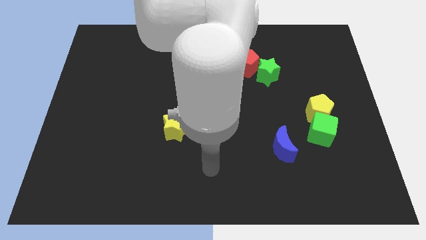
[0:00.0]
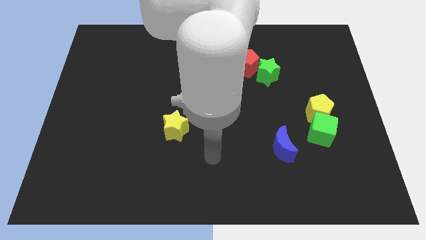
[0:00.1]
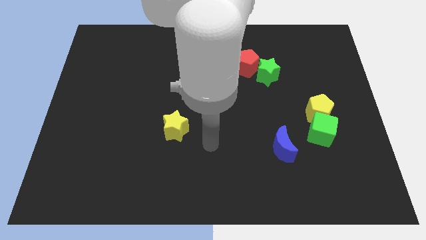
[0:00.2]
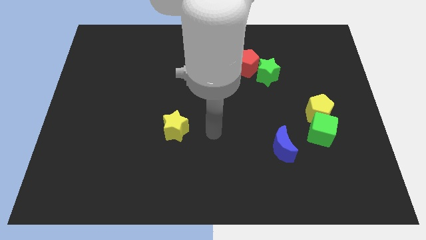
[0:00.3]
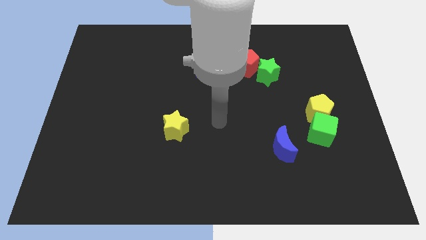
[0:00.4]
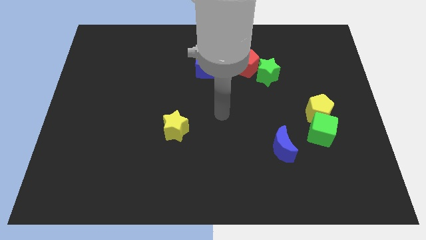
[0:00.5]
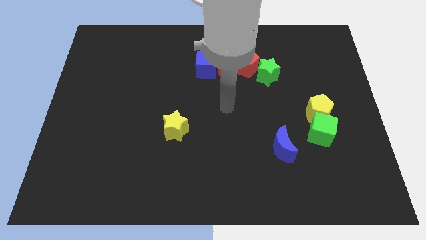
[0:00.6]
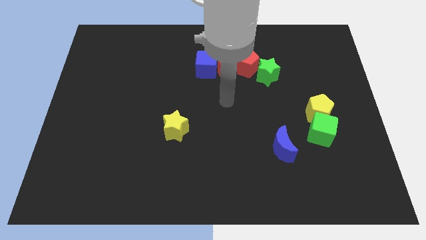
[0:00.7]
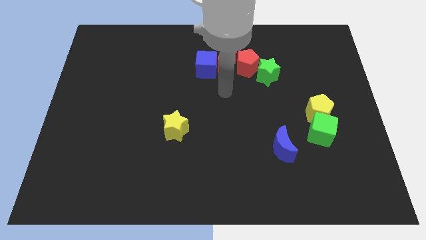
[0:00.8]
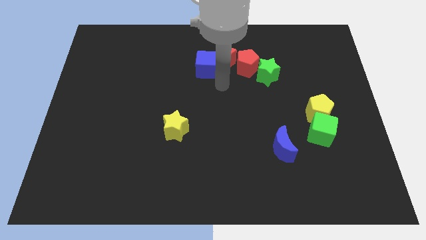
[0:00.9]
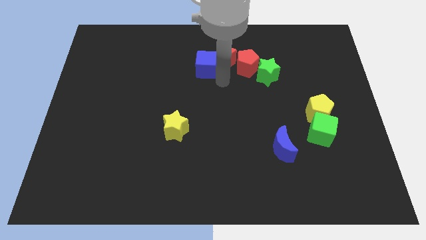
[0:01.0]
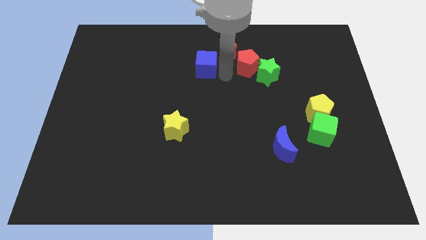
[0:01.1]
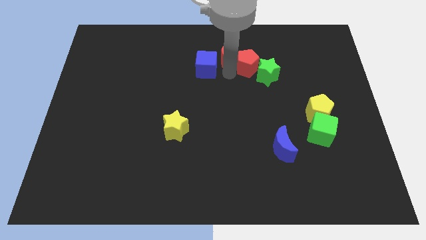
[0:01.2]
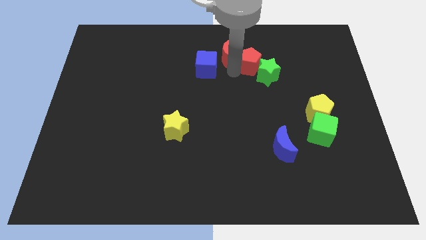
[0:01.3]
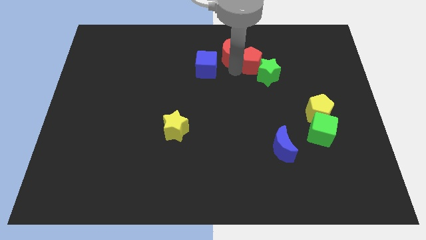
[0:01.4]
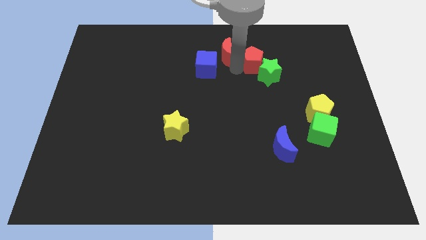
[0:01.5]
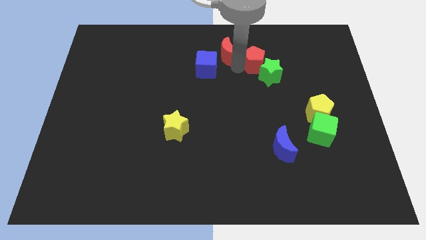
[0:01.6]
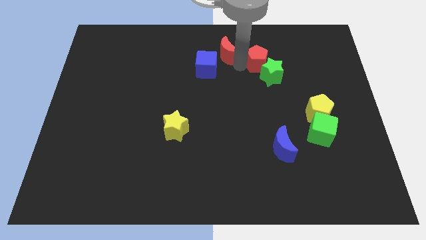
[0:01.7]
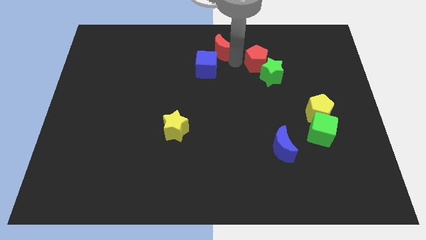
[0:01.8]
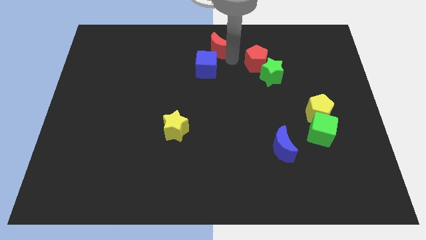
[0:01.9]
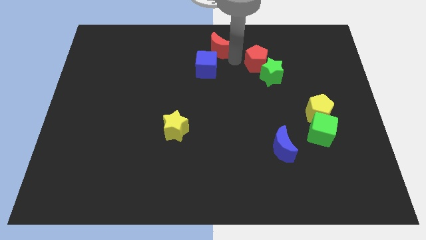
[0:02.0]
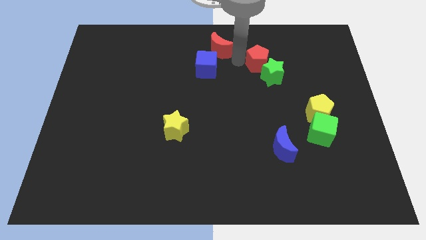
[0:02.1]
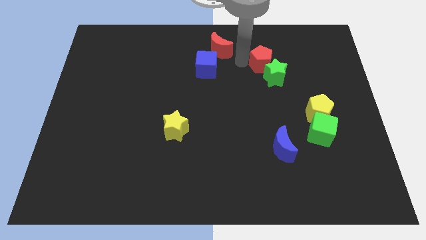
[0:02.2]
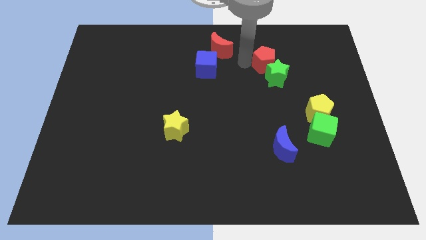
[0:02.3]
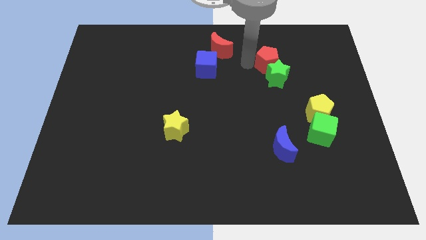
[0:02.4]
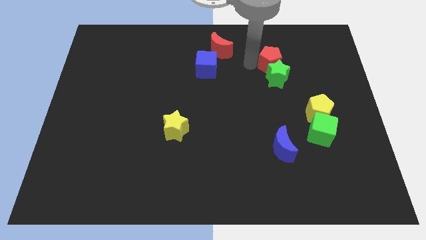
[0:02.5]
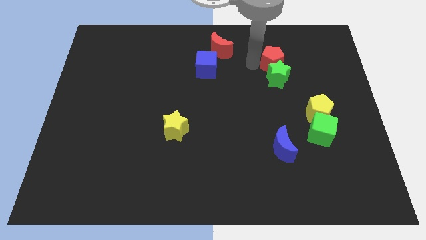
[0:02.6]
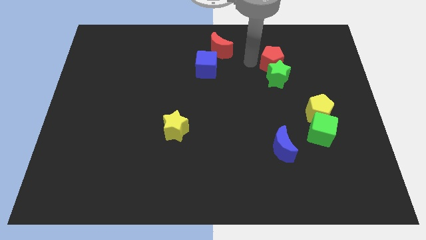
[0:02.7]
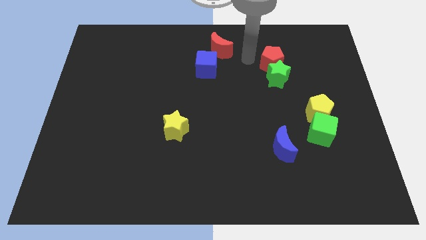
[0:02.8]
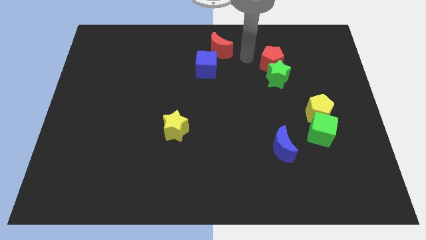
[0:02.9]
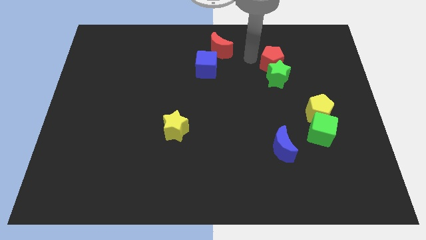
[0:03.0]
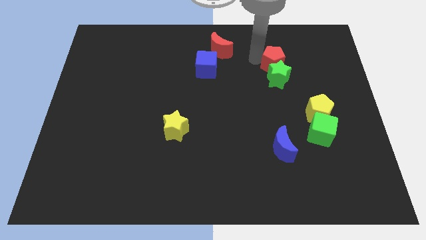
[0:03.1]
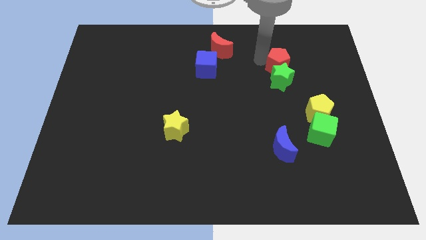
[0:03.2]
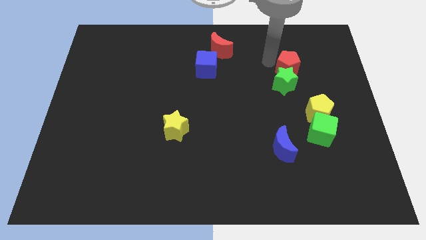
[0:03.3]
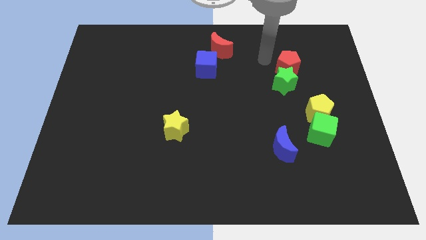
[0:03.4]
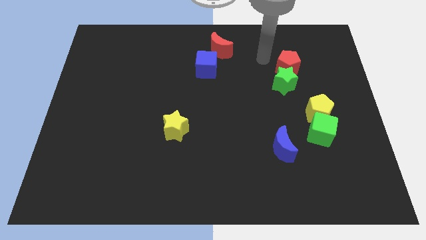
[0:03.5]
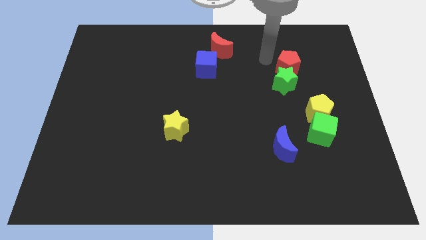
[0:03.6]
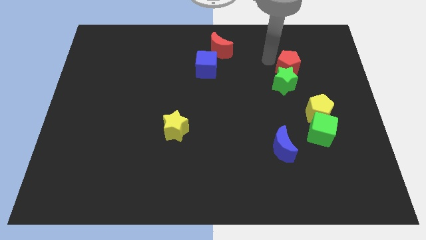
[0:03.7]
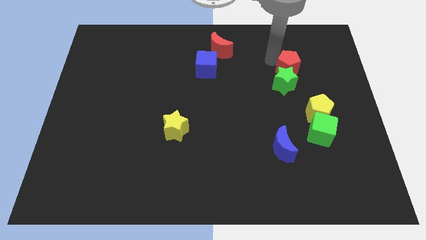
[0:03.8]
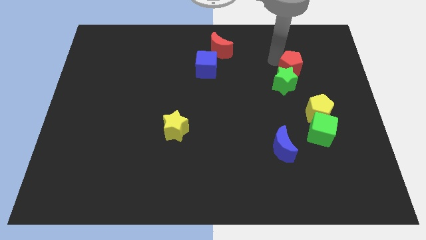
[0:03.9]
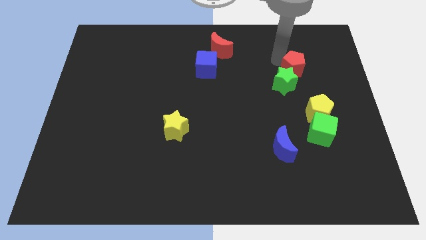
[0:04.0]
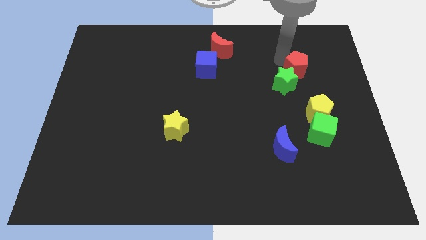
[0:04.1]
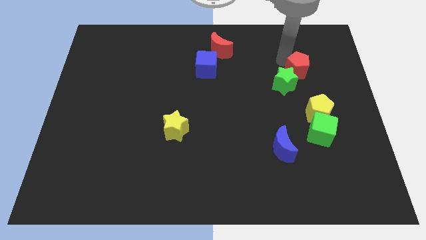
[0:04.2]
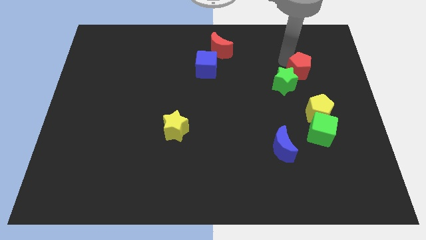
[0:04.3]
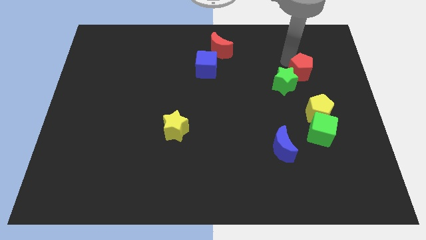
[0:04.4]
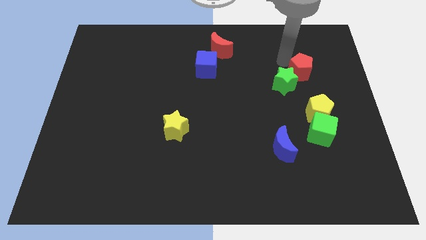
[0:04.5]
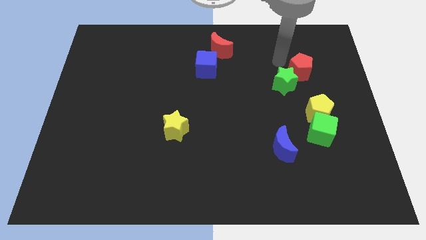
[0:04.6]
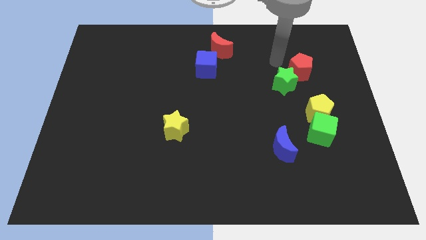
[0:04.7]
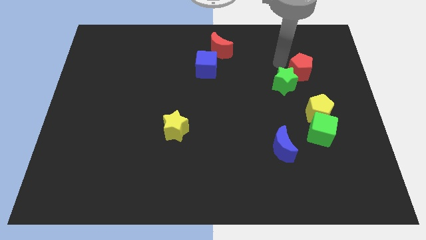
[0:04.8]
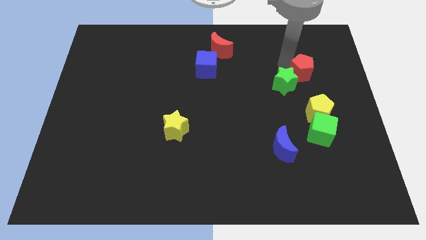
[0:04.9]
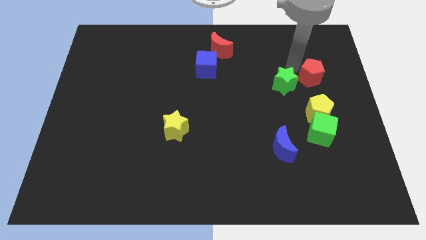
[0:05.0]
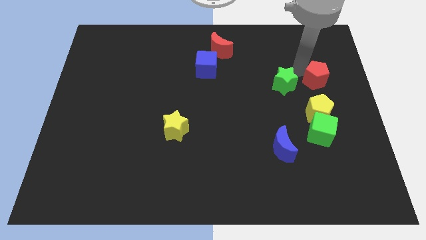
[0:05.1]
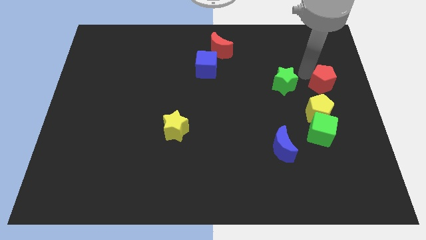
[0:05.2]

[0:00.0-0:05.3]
slide the red pentagon to the right side of the board

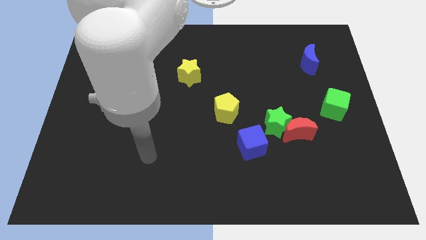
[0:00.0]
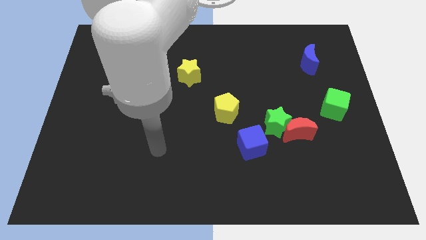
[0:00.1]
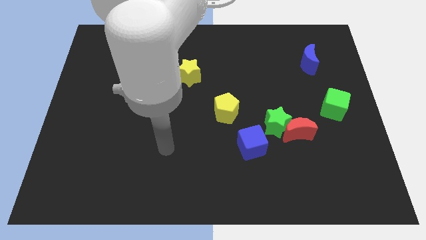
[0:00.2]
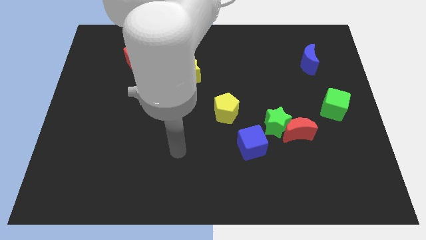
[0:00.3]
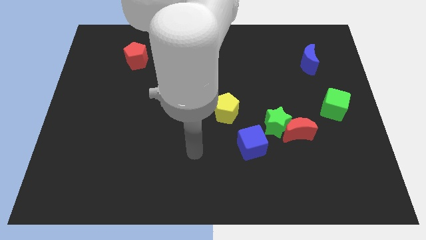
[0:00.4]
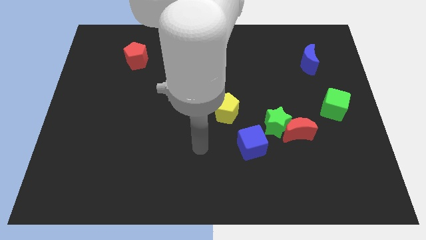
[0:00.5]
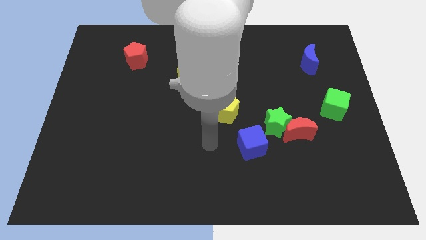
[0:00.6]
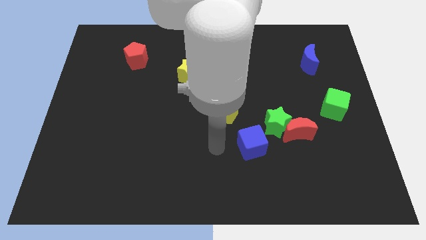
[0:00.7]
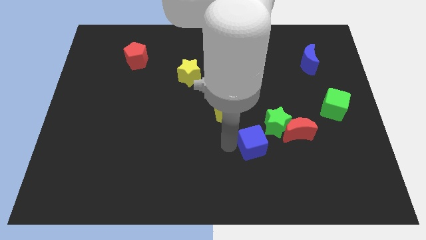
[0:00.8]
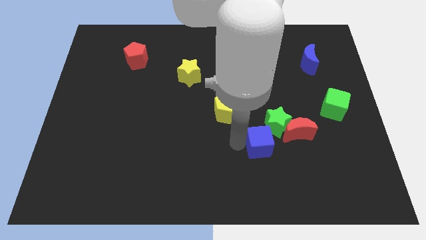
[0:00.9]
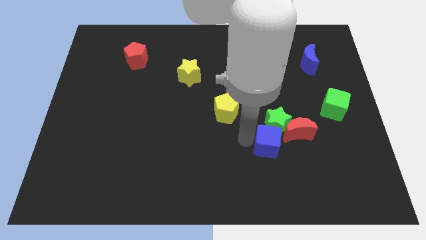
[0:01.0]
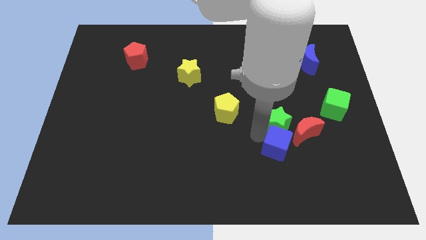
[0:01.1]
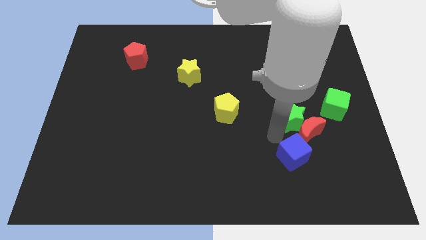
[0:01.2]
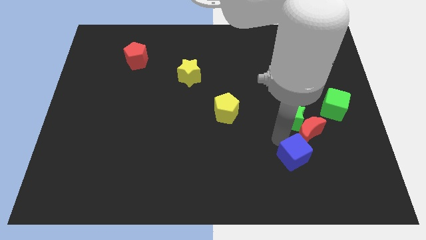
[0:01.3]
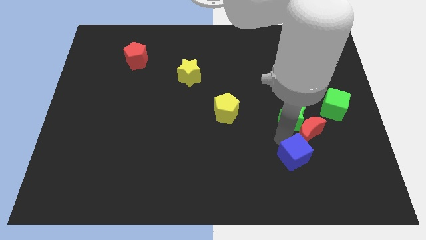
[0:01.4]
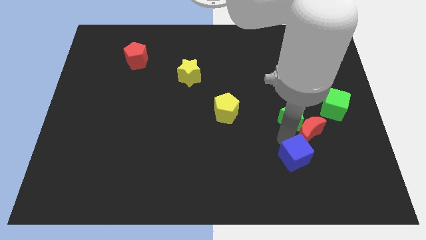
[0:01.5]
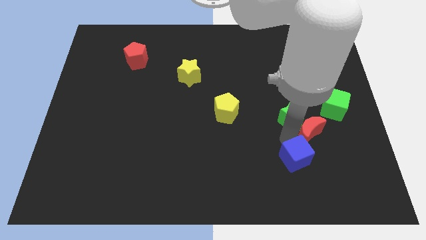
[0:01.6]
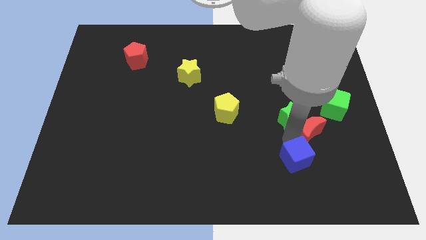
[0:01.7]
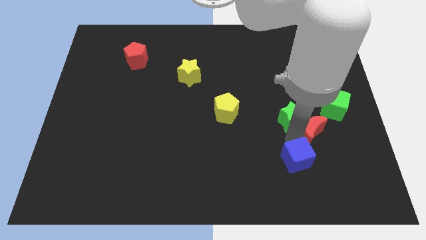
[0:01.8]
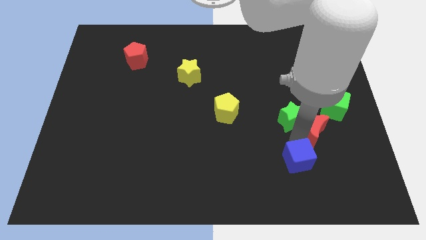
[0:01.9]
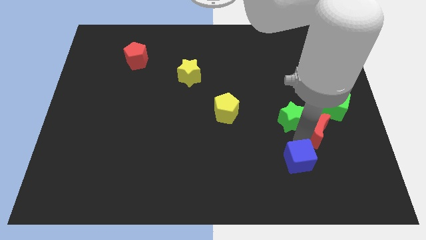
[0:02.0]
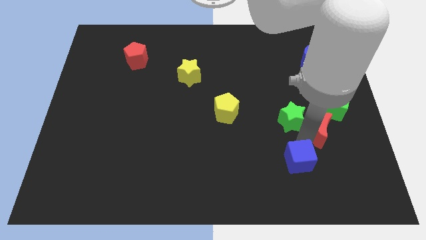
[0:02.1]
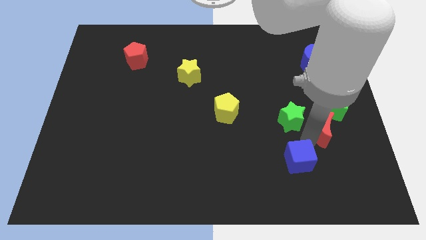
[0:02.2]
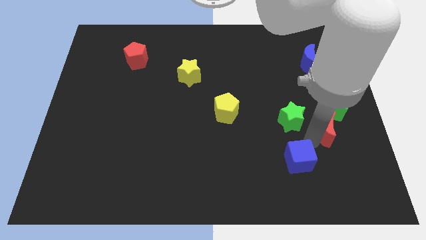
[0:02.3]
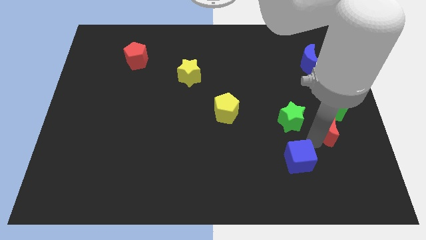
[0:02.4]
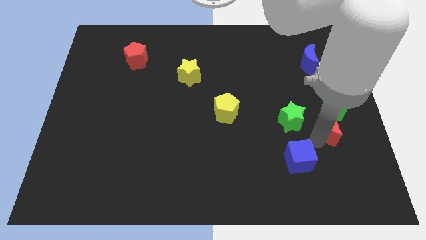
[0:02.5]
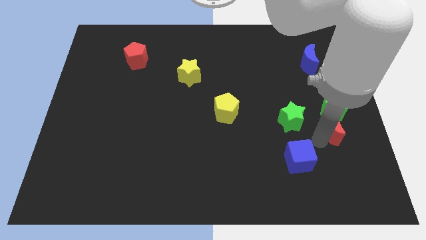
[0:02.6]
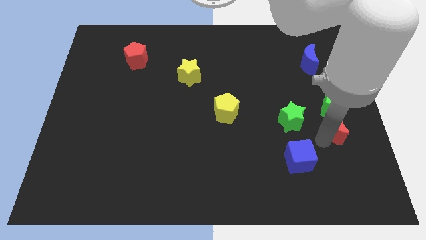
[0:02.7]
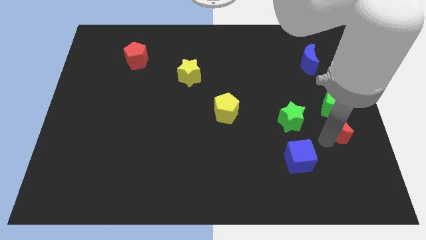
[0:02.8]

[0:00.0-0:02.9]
slide the red moon to the center right
